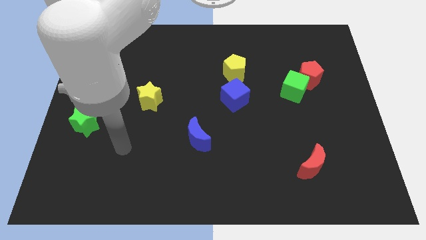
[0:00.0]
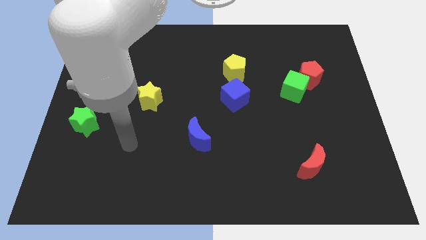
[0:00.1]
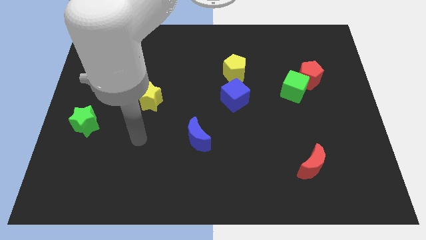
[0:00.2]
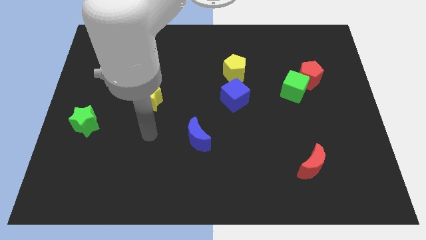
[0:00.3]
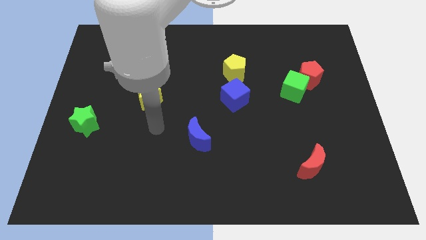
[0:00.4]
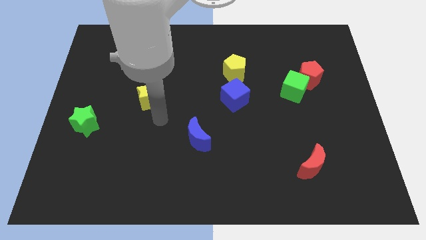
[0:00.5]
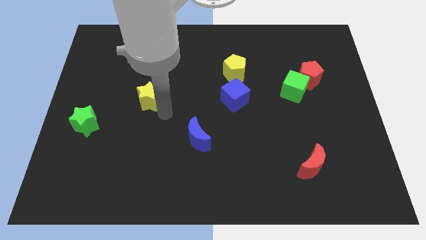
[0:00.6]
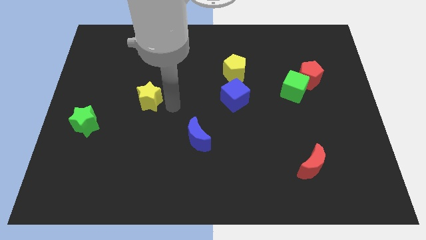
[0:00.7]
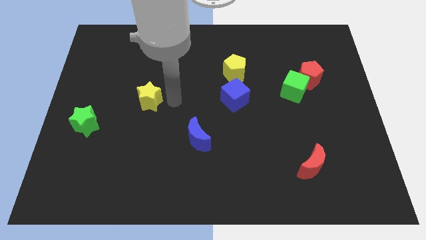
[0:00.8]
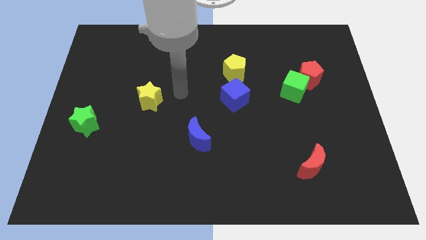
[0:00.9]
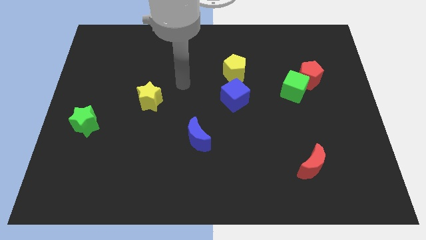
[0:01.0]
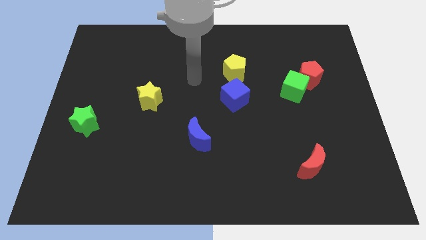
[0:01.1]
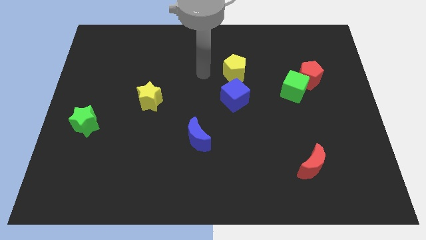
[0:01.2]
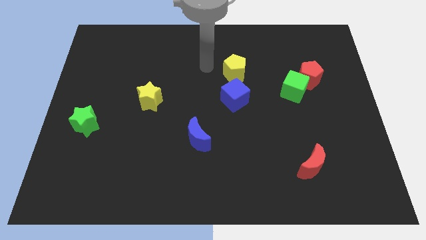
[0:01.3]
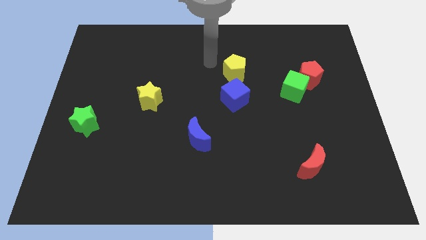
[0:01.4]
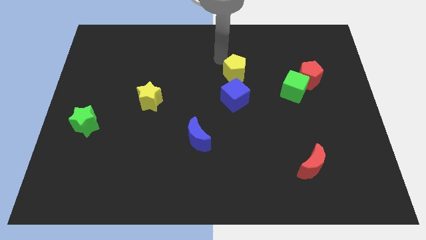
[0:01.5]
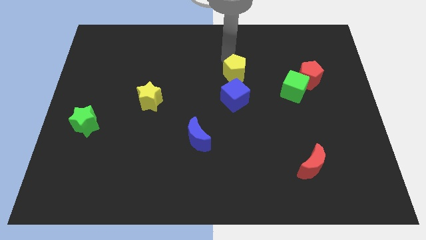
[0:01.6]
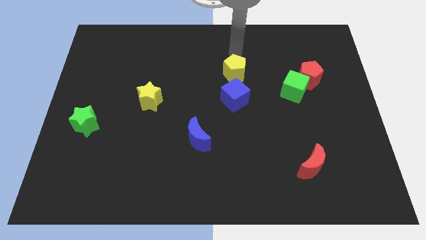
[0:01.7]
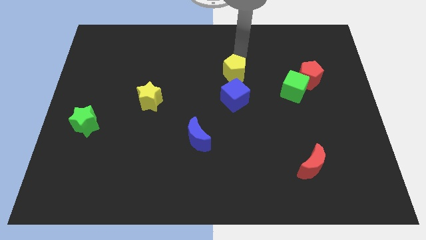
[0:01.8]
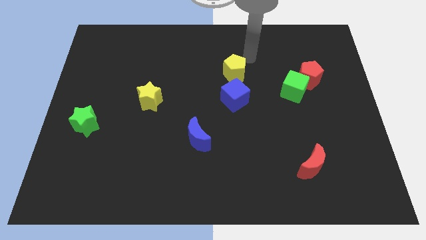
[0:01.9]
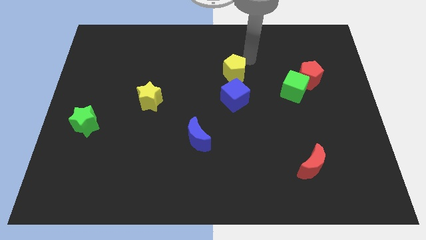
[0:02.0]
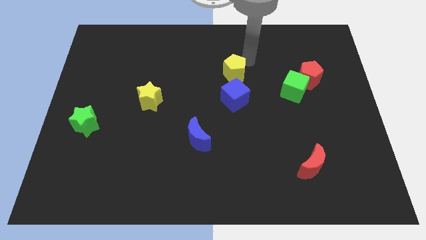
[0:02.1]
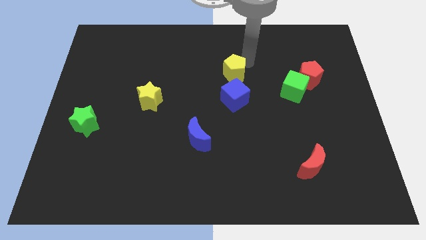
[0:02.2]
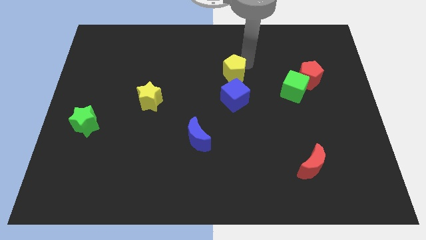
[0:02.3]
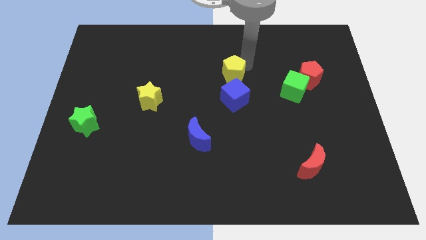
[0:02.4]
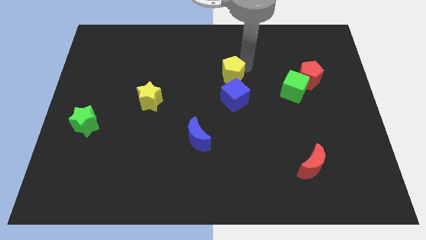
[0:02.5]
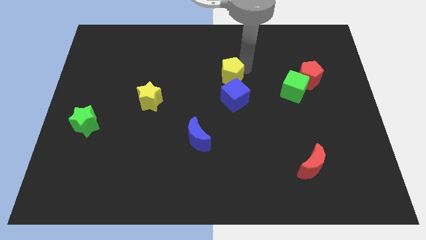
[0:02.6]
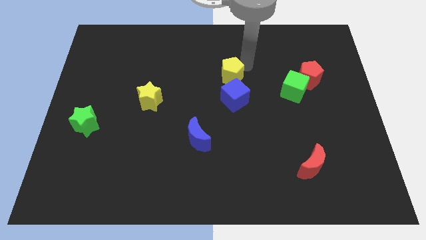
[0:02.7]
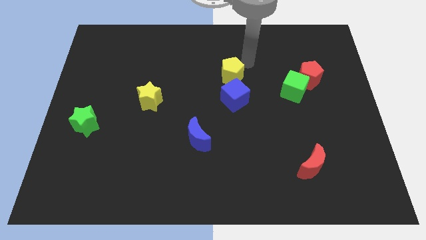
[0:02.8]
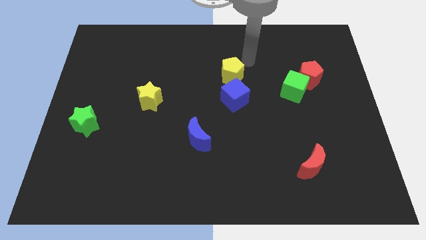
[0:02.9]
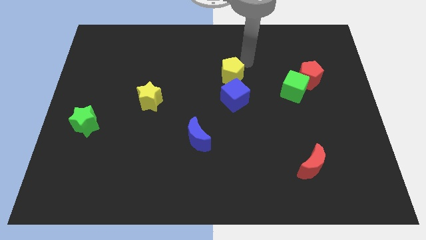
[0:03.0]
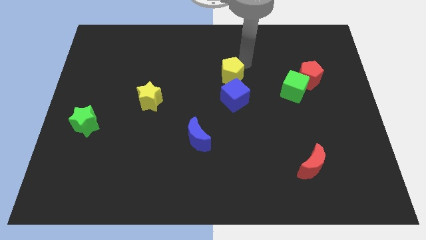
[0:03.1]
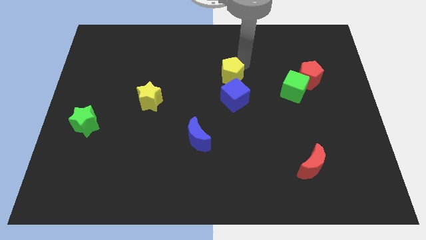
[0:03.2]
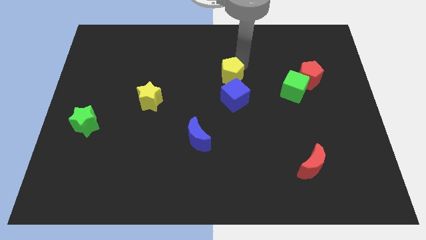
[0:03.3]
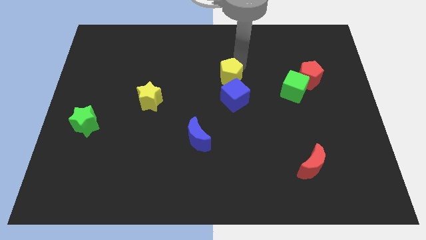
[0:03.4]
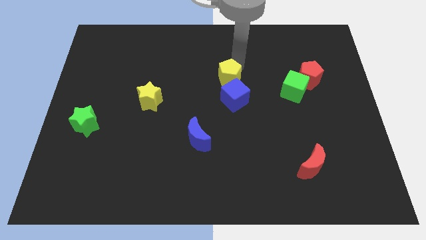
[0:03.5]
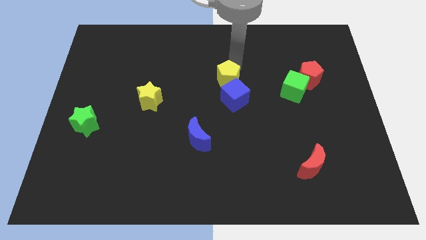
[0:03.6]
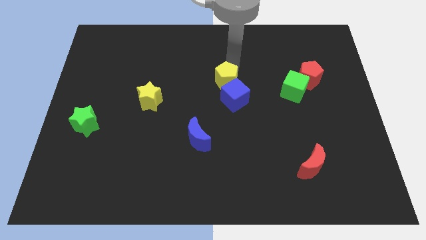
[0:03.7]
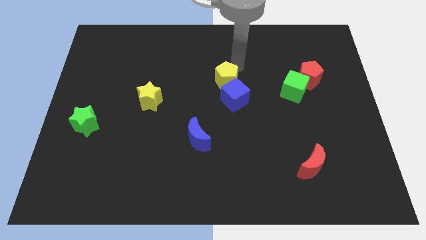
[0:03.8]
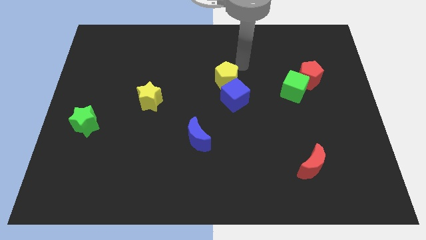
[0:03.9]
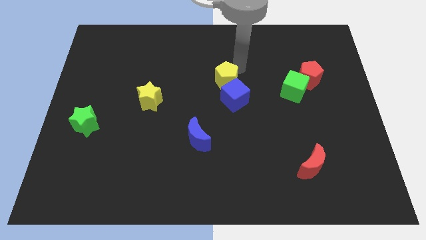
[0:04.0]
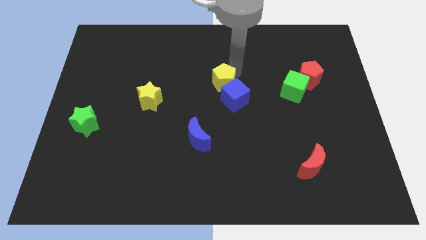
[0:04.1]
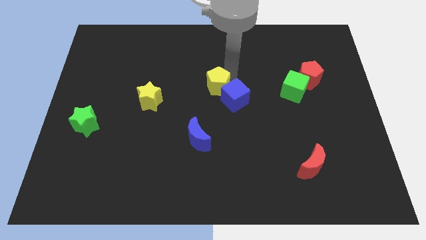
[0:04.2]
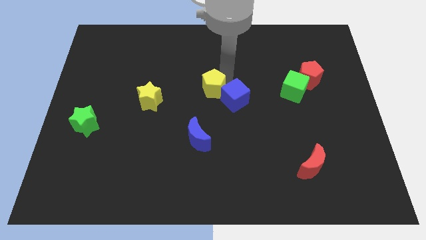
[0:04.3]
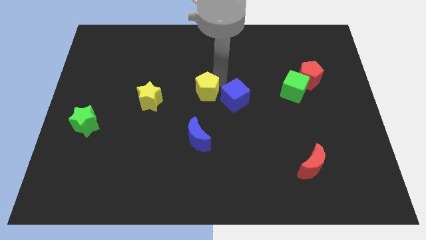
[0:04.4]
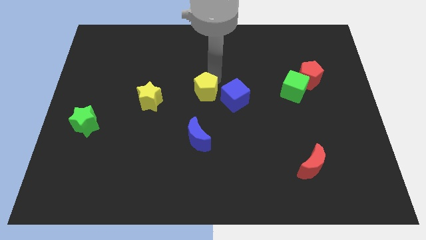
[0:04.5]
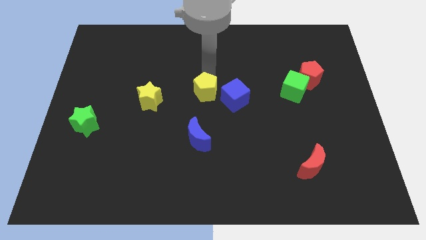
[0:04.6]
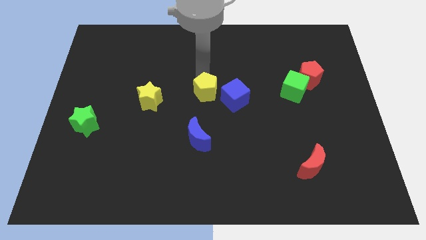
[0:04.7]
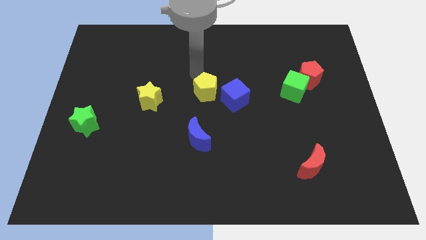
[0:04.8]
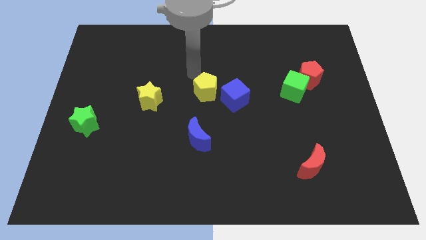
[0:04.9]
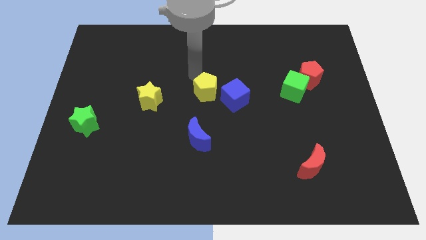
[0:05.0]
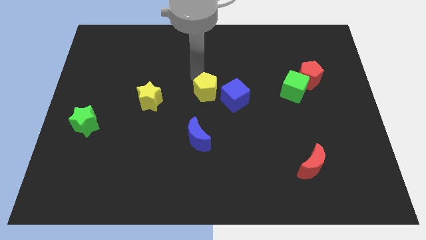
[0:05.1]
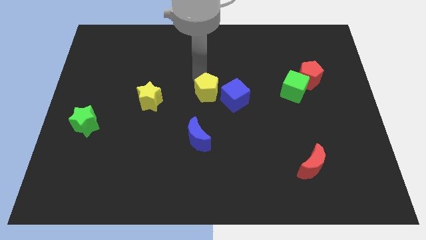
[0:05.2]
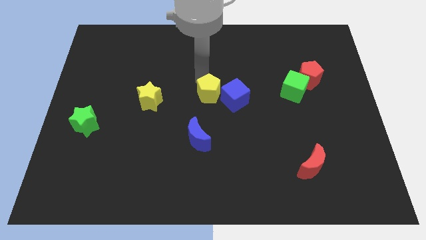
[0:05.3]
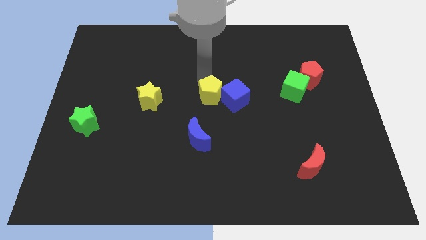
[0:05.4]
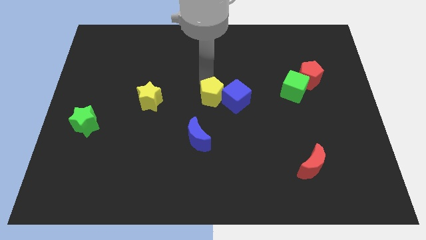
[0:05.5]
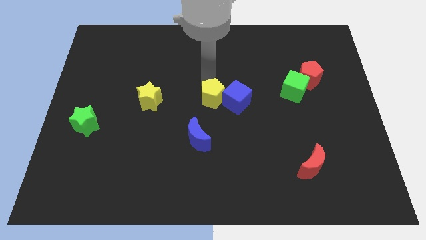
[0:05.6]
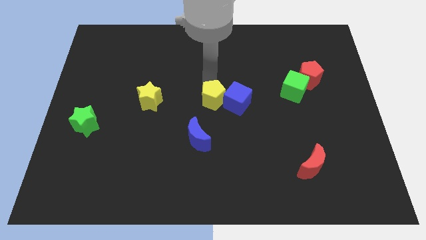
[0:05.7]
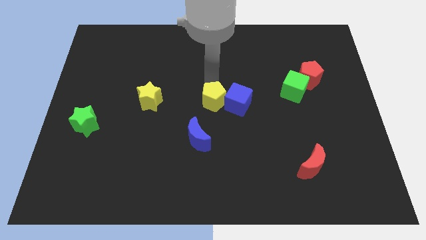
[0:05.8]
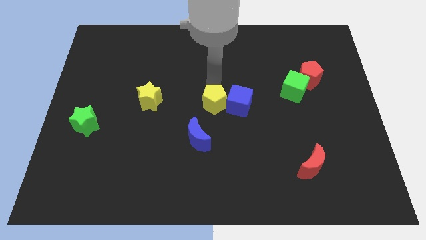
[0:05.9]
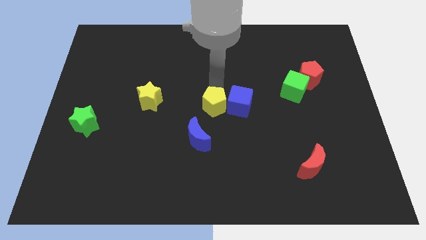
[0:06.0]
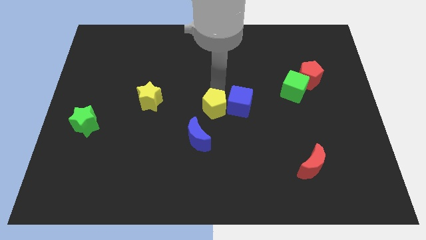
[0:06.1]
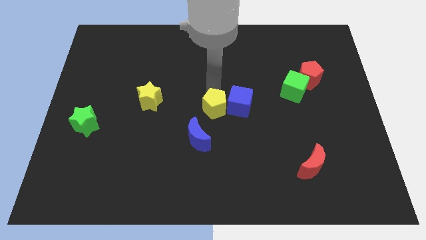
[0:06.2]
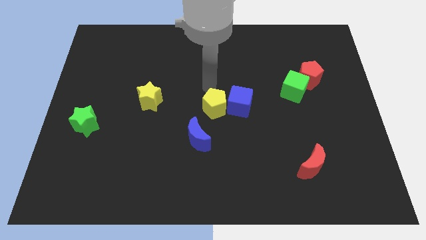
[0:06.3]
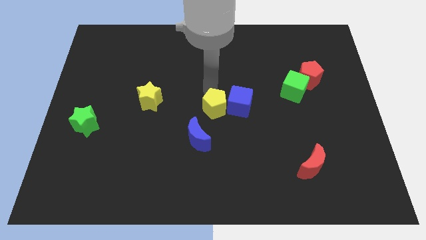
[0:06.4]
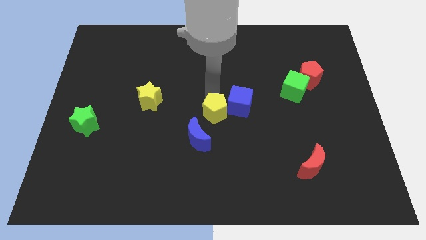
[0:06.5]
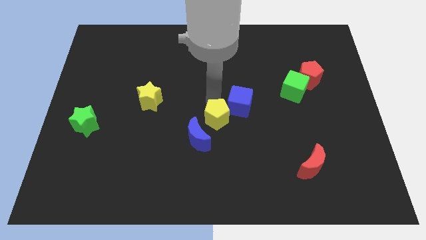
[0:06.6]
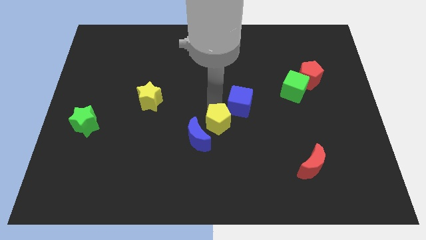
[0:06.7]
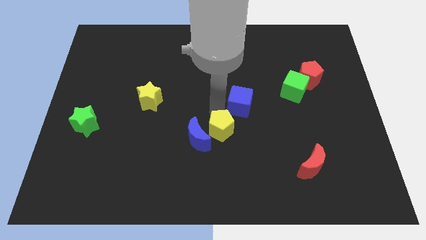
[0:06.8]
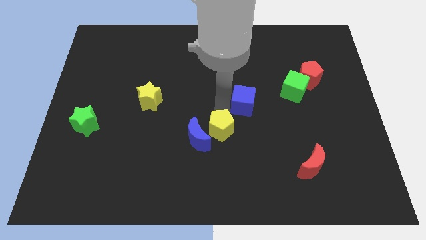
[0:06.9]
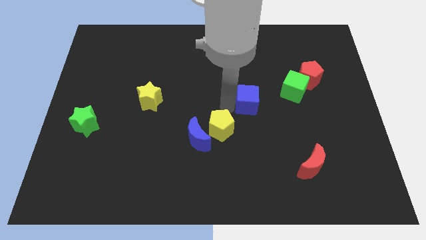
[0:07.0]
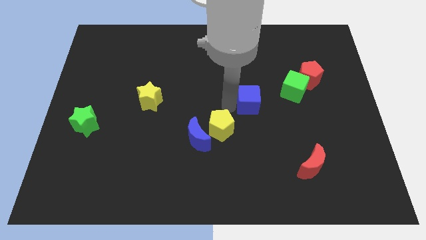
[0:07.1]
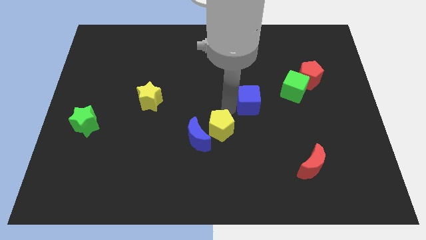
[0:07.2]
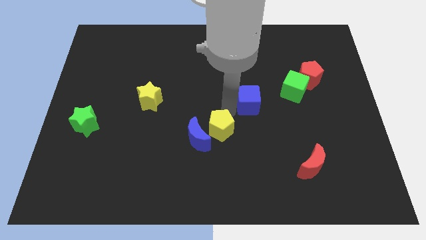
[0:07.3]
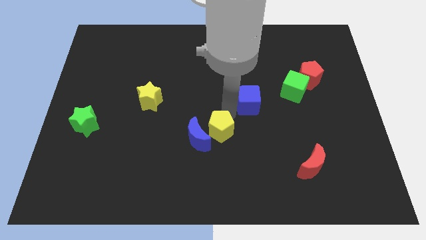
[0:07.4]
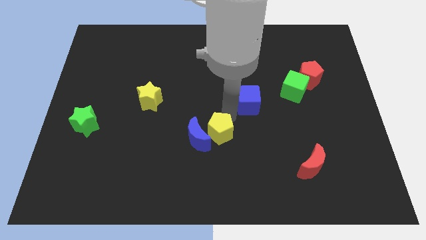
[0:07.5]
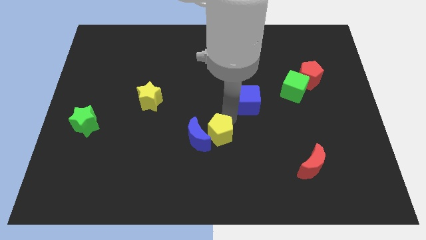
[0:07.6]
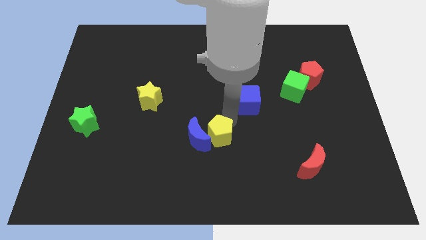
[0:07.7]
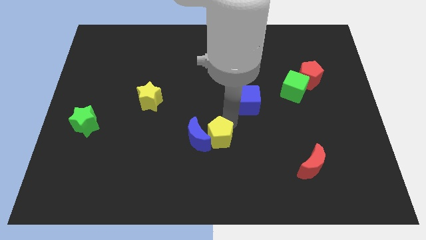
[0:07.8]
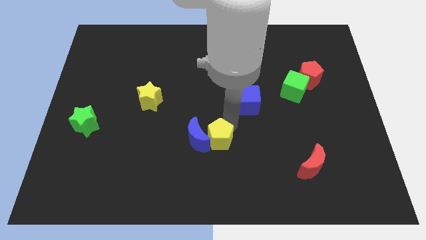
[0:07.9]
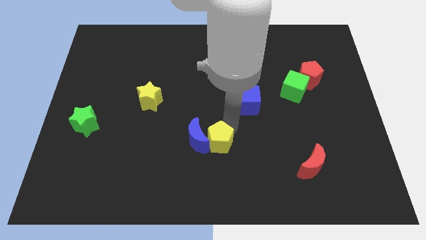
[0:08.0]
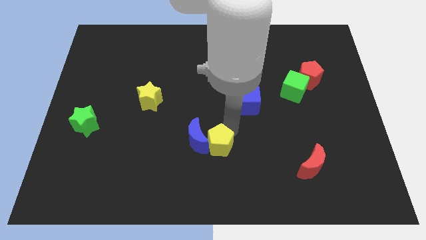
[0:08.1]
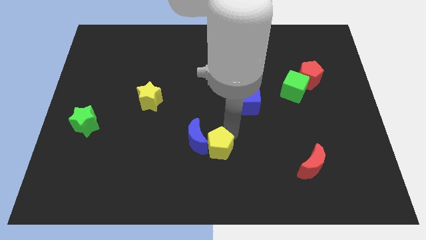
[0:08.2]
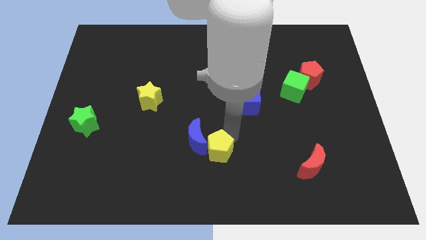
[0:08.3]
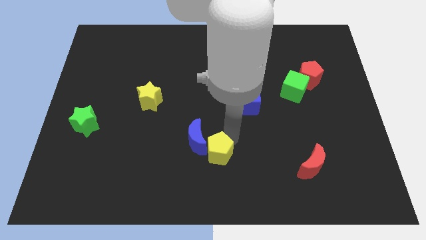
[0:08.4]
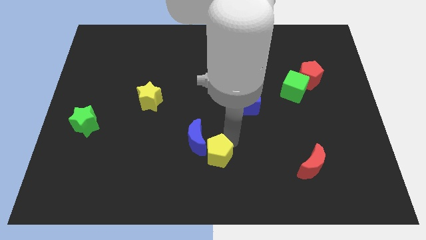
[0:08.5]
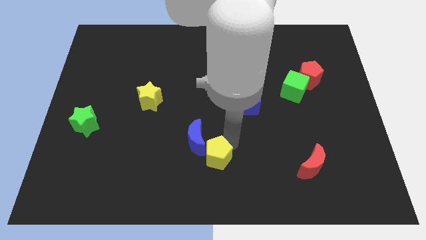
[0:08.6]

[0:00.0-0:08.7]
slide the yellow pentagon to the bottom of the blue moon
